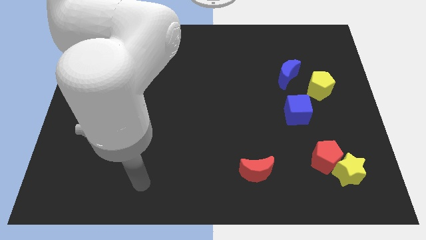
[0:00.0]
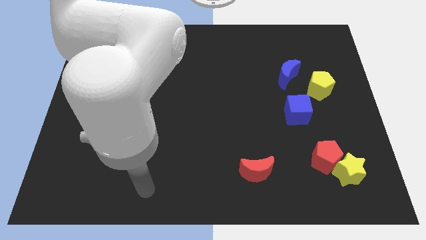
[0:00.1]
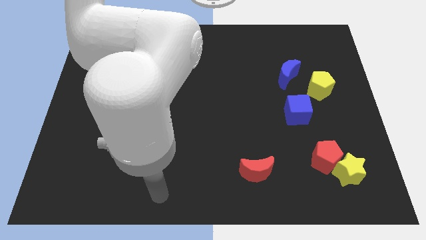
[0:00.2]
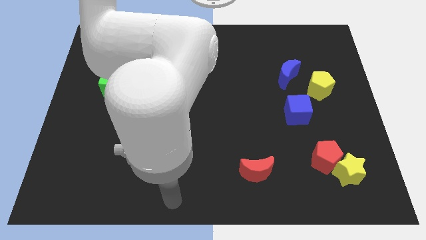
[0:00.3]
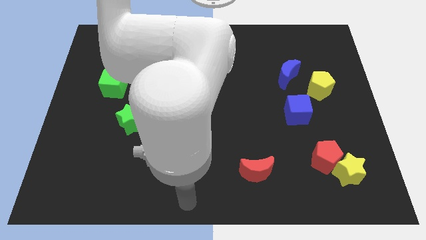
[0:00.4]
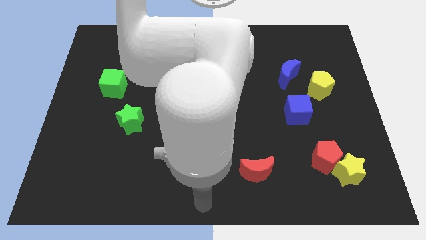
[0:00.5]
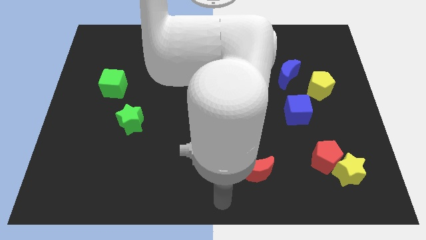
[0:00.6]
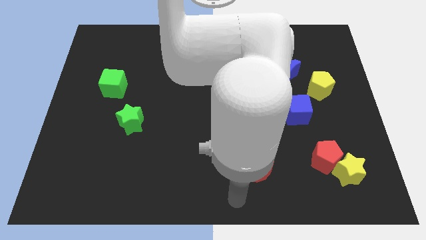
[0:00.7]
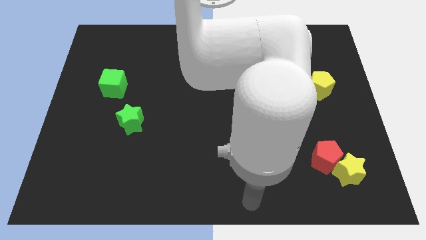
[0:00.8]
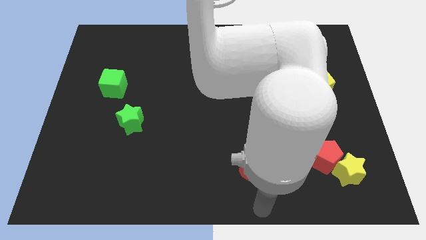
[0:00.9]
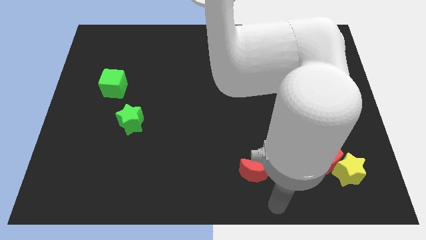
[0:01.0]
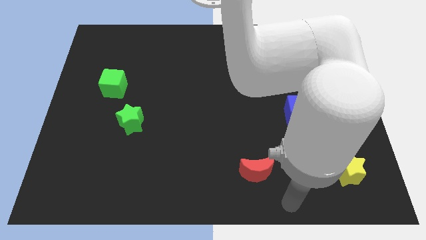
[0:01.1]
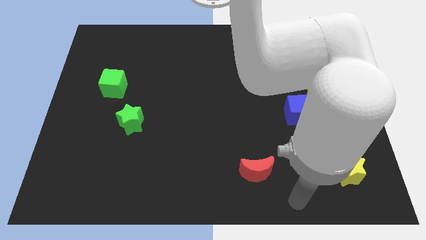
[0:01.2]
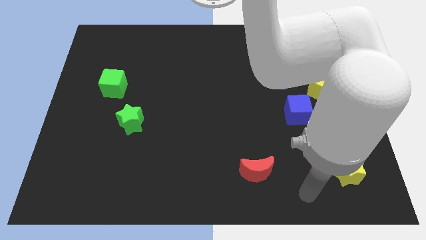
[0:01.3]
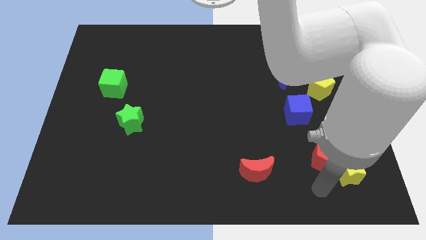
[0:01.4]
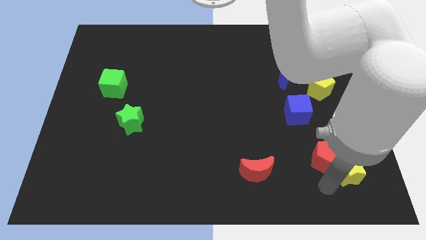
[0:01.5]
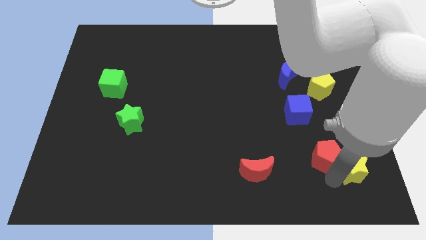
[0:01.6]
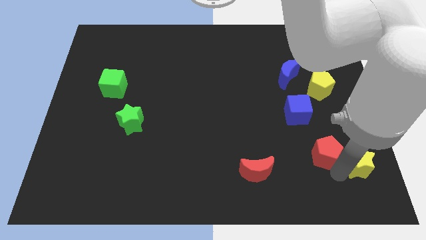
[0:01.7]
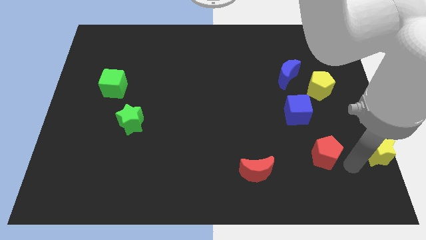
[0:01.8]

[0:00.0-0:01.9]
pull the red pentagon apart from the yellow star

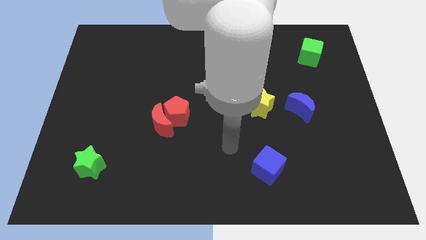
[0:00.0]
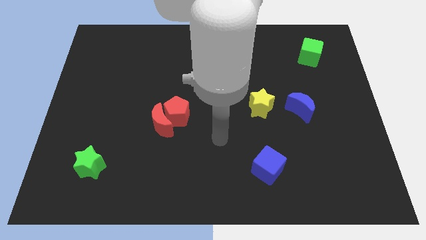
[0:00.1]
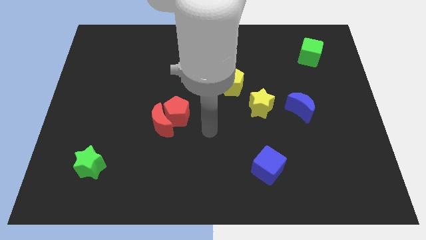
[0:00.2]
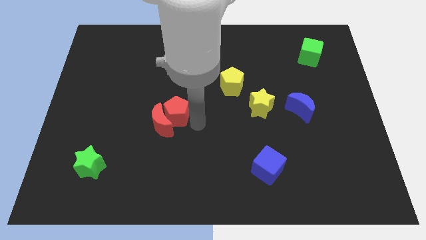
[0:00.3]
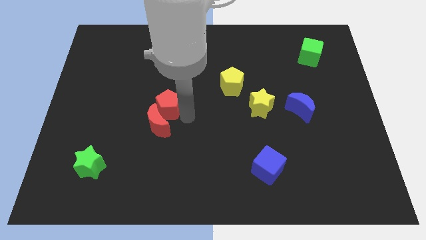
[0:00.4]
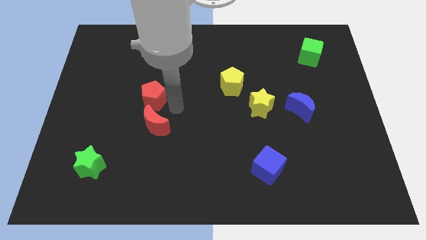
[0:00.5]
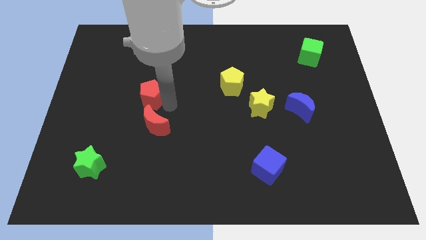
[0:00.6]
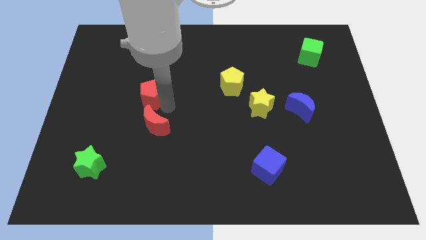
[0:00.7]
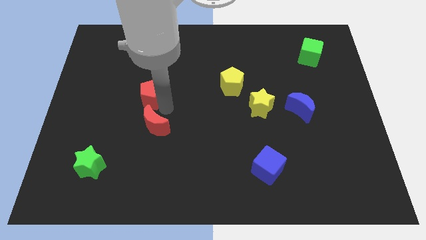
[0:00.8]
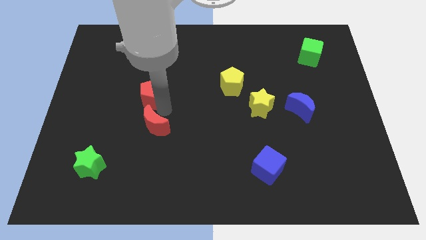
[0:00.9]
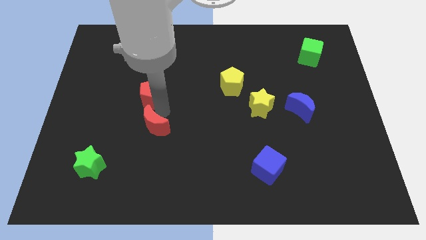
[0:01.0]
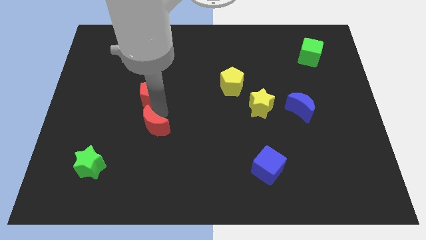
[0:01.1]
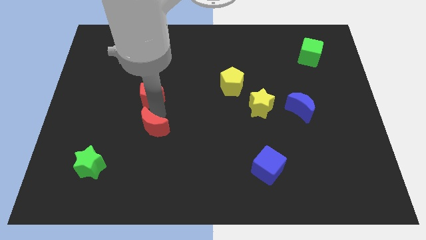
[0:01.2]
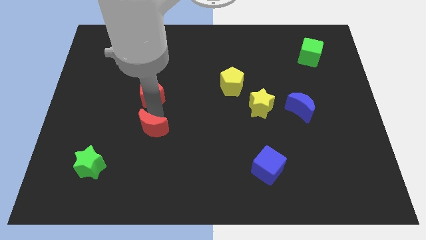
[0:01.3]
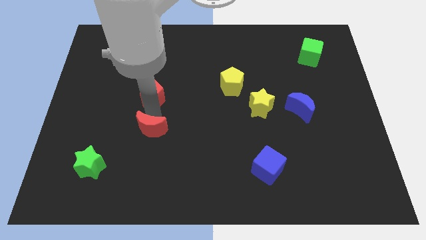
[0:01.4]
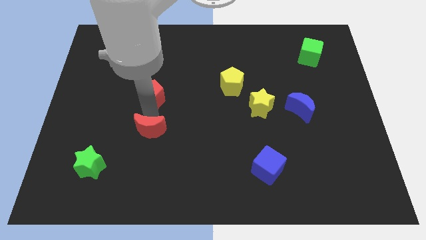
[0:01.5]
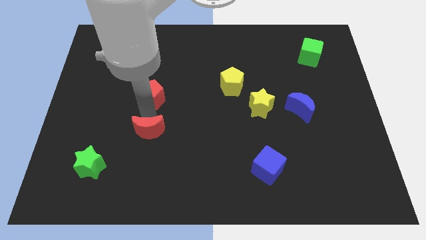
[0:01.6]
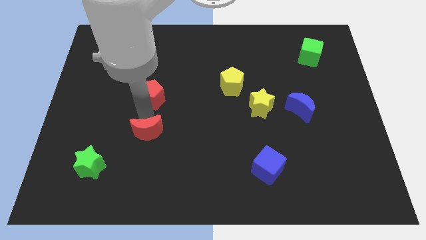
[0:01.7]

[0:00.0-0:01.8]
separate the red moon from the red pentagon

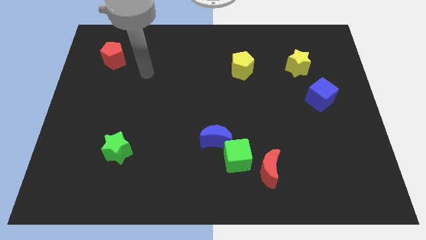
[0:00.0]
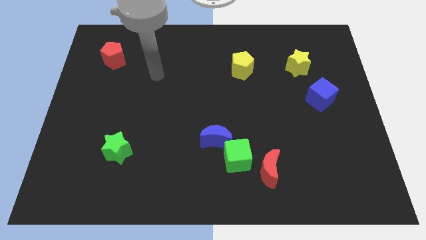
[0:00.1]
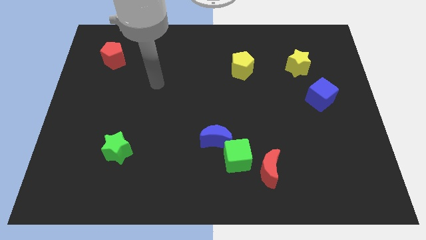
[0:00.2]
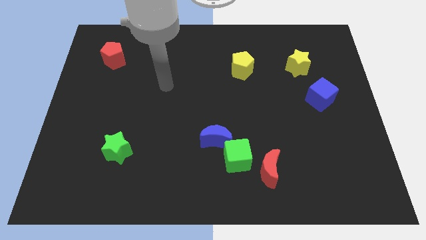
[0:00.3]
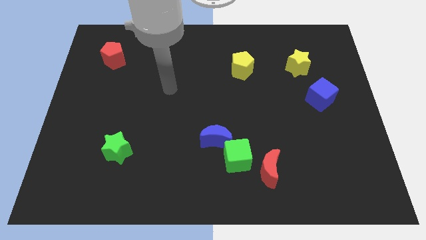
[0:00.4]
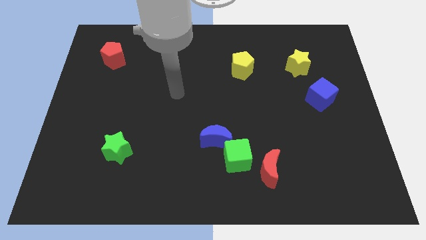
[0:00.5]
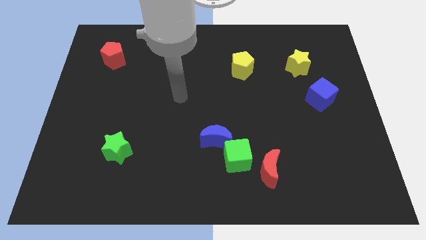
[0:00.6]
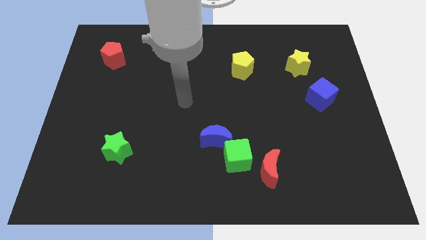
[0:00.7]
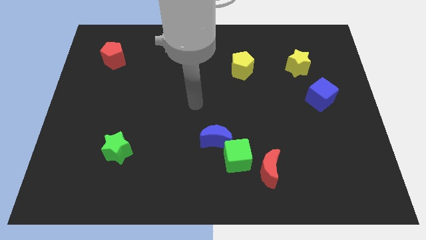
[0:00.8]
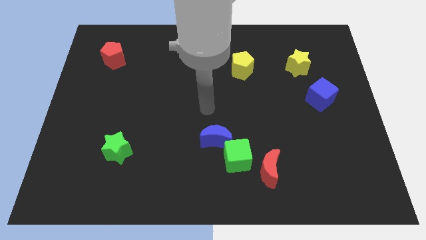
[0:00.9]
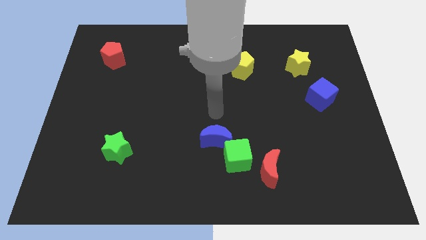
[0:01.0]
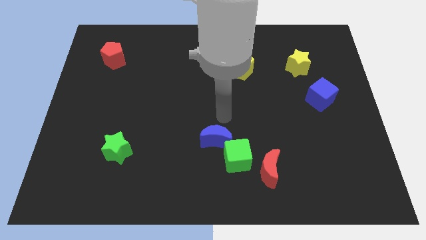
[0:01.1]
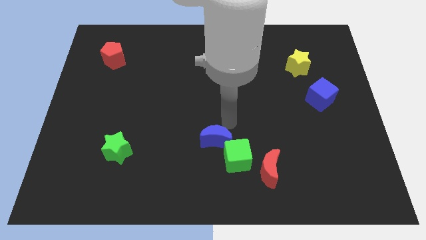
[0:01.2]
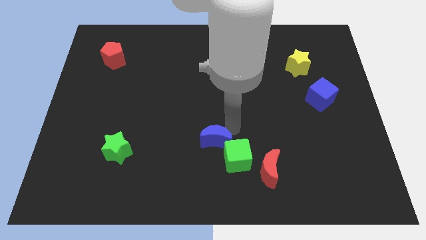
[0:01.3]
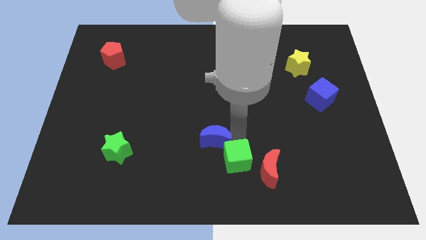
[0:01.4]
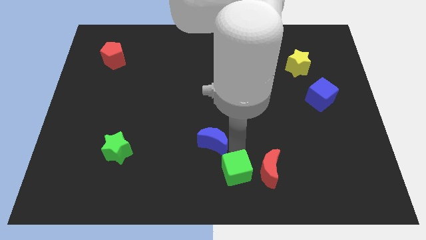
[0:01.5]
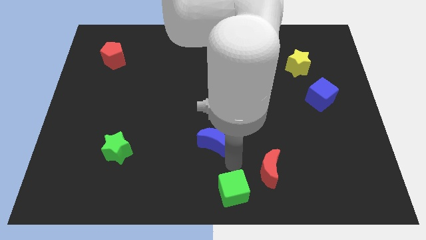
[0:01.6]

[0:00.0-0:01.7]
separate the blue moon from the green cube

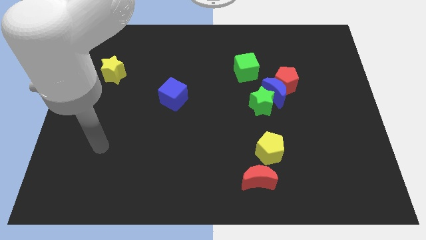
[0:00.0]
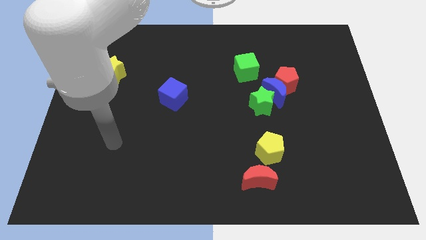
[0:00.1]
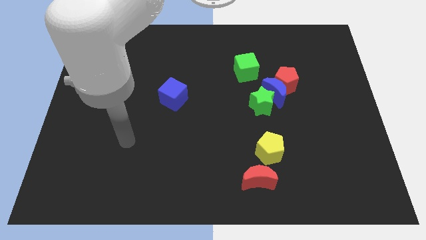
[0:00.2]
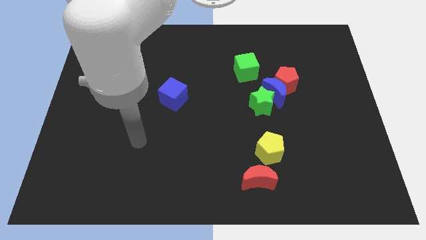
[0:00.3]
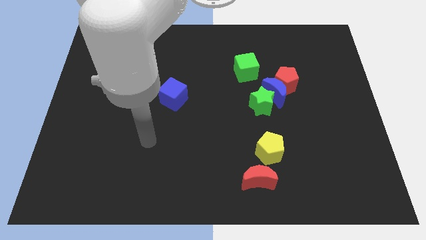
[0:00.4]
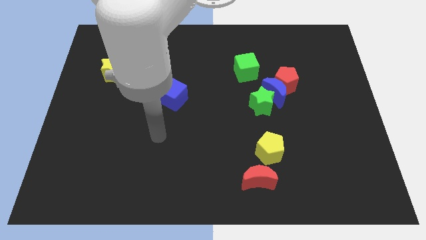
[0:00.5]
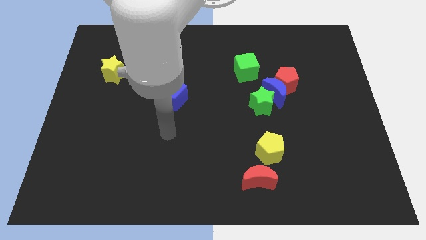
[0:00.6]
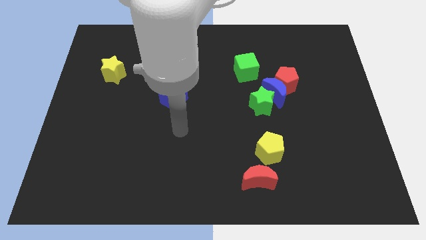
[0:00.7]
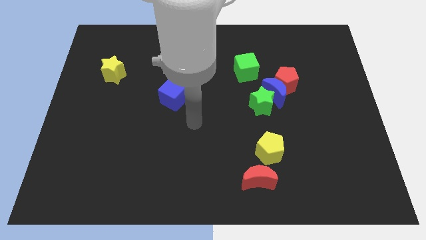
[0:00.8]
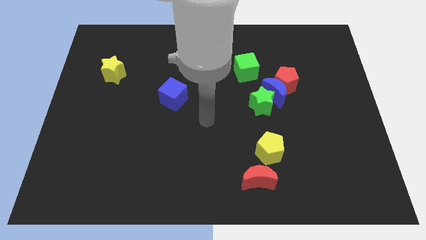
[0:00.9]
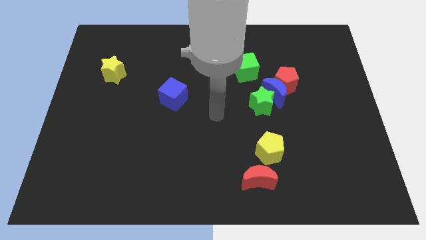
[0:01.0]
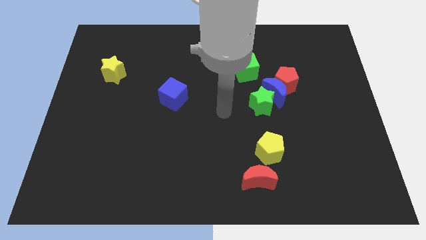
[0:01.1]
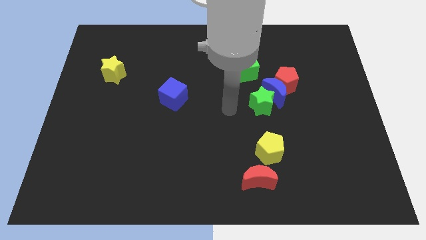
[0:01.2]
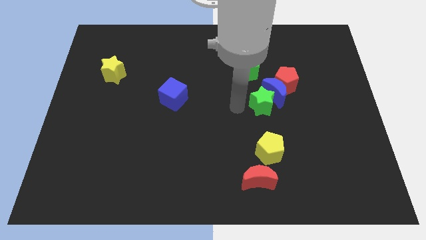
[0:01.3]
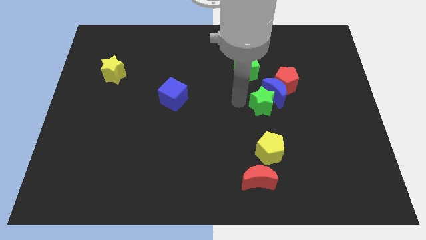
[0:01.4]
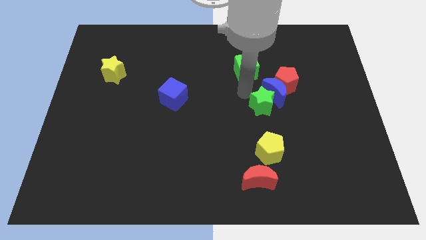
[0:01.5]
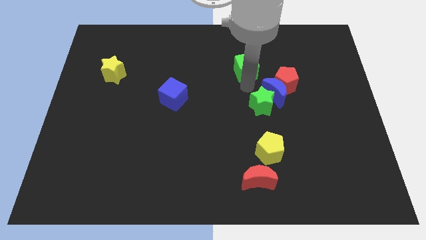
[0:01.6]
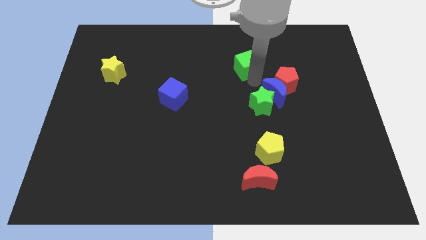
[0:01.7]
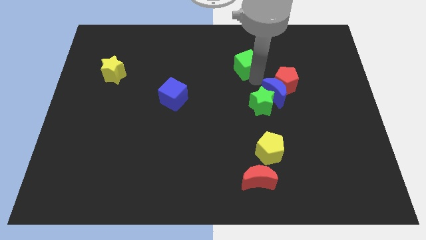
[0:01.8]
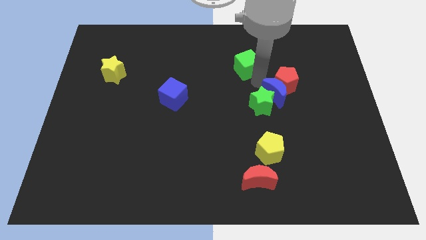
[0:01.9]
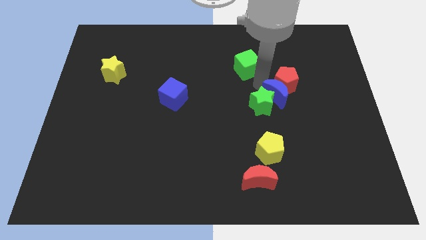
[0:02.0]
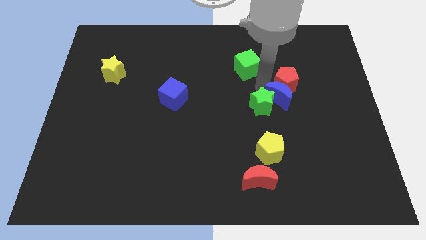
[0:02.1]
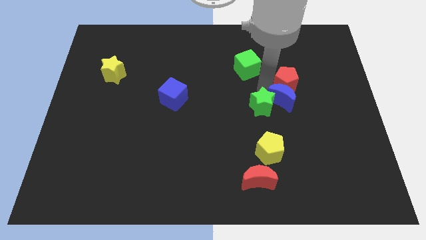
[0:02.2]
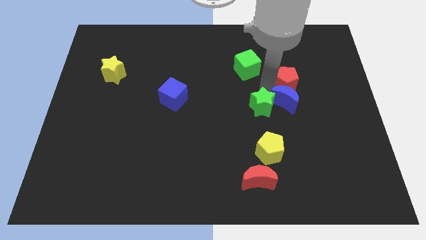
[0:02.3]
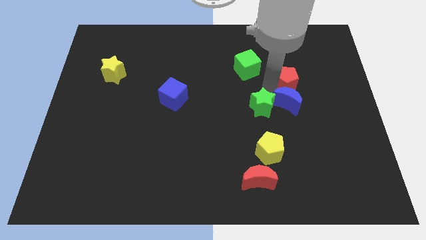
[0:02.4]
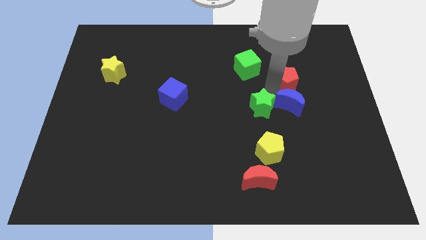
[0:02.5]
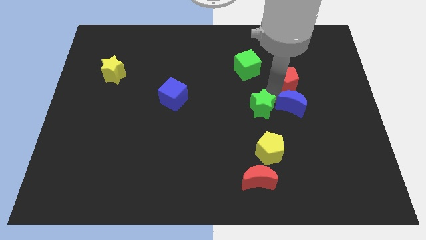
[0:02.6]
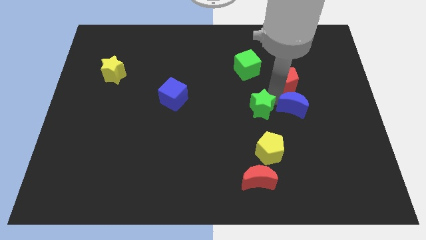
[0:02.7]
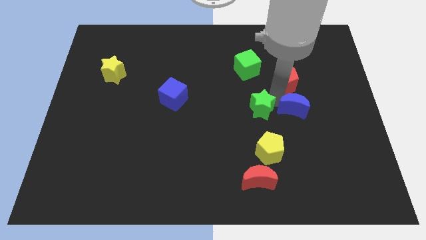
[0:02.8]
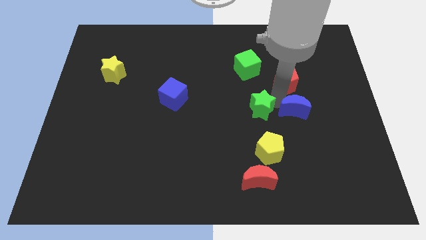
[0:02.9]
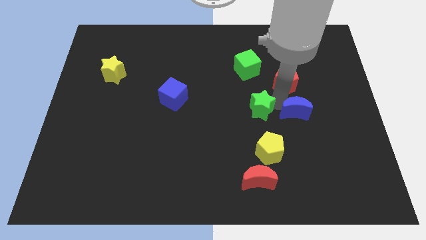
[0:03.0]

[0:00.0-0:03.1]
move the blue moon away from the red pentagon, green star, and green cube

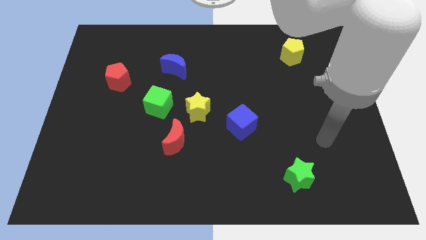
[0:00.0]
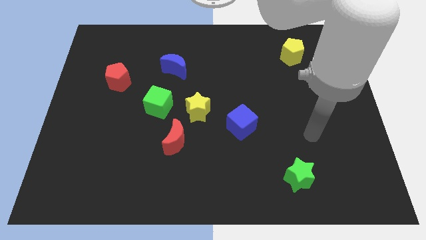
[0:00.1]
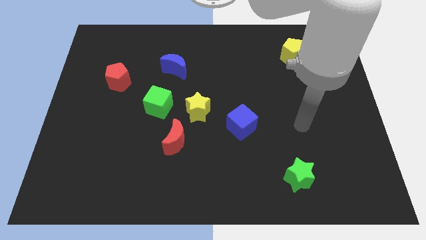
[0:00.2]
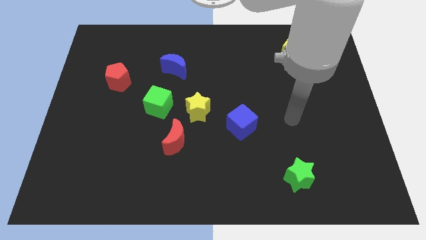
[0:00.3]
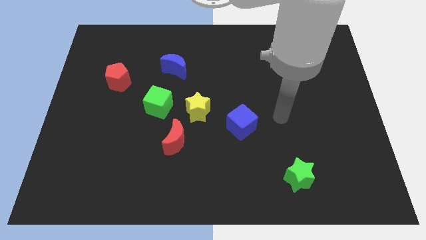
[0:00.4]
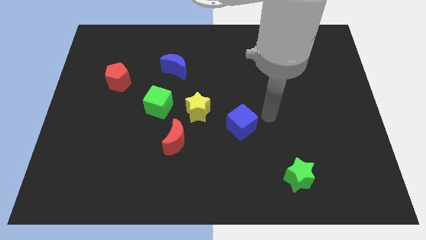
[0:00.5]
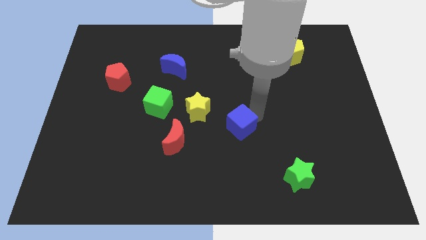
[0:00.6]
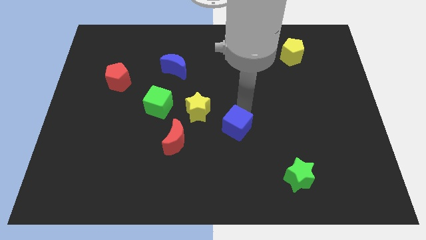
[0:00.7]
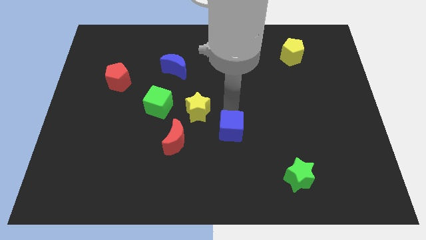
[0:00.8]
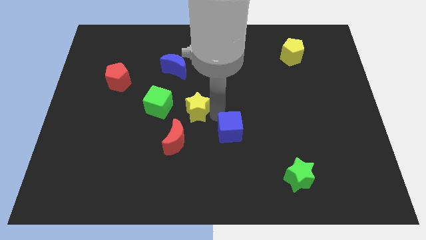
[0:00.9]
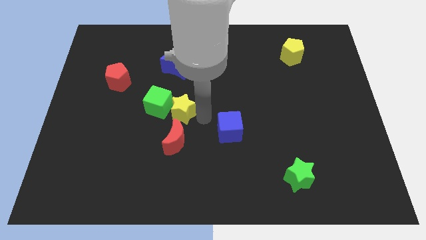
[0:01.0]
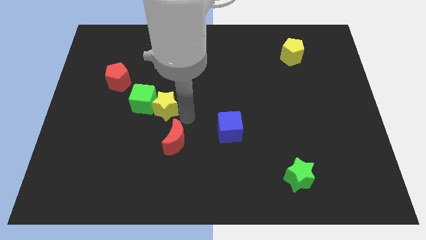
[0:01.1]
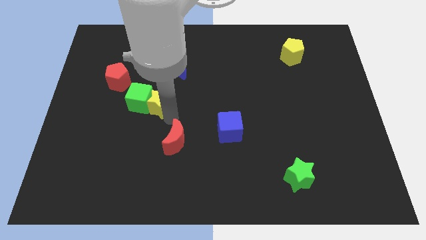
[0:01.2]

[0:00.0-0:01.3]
pull the red moon apart from the yellow star
